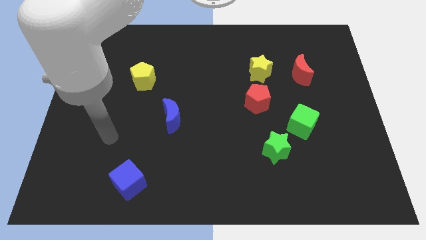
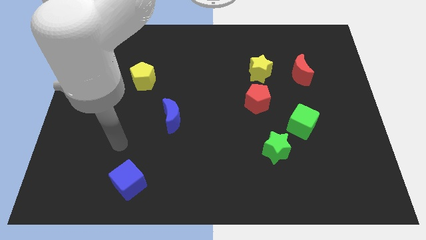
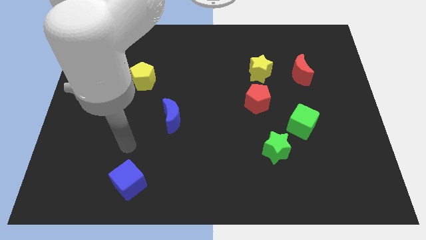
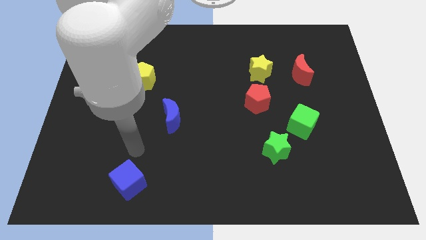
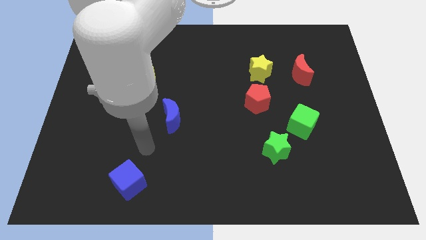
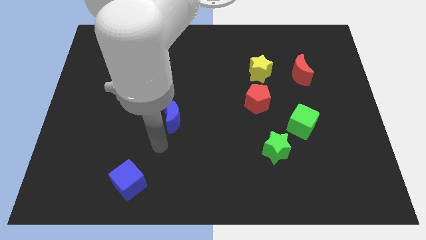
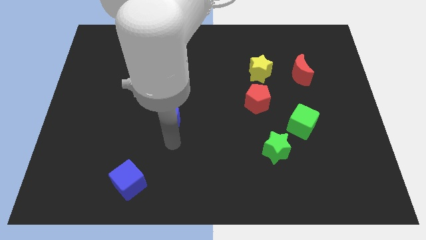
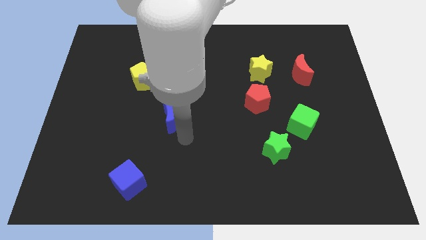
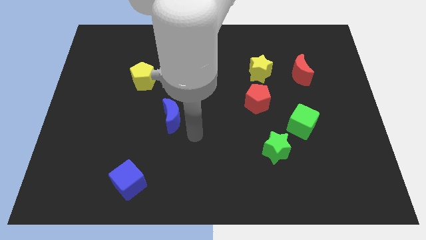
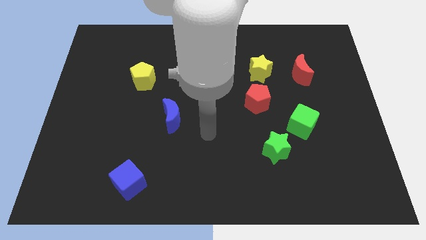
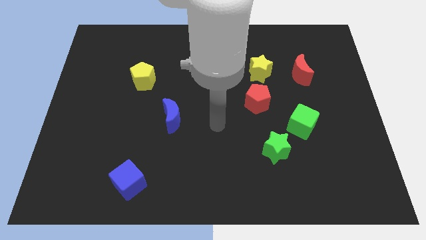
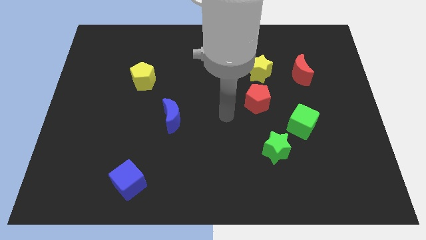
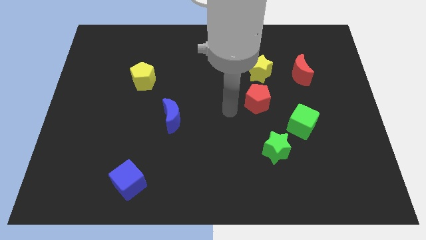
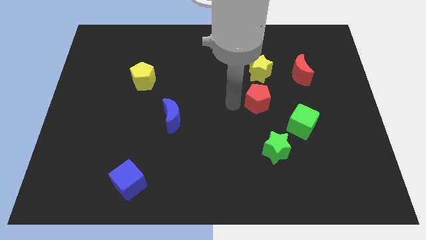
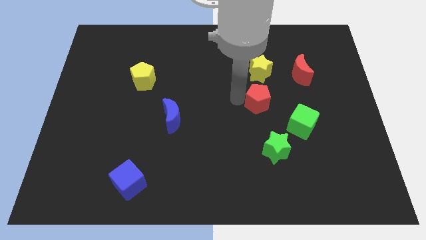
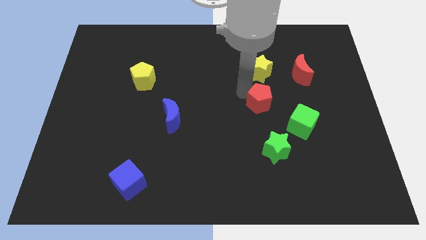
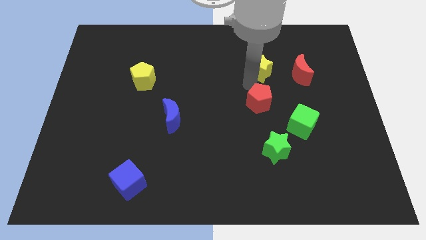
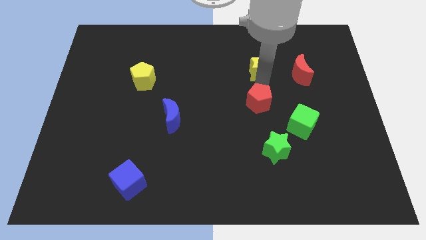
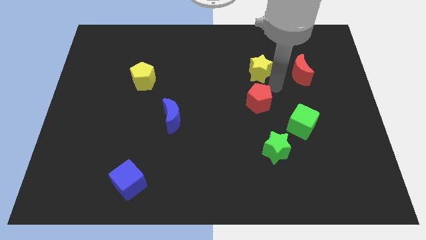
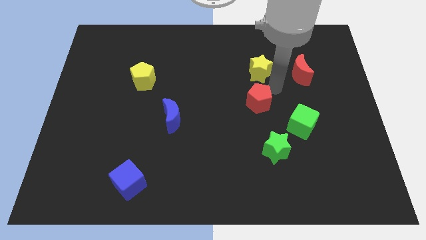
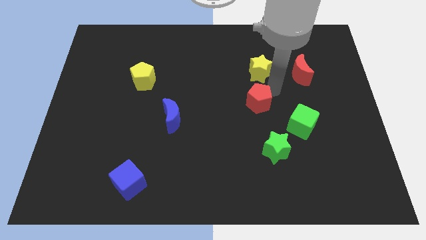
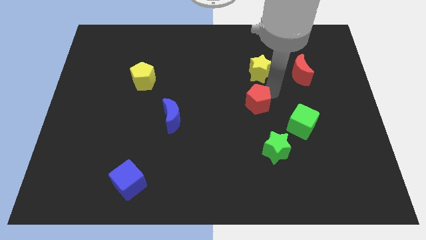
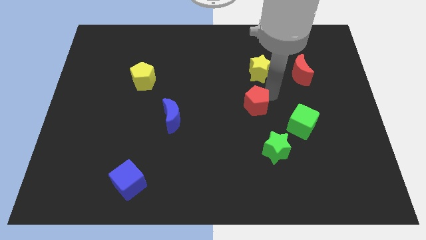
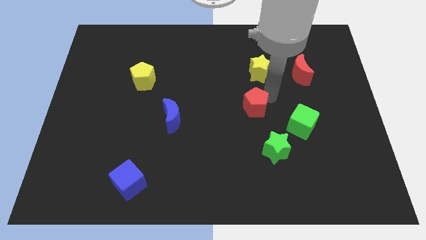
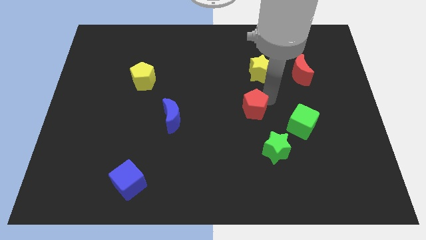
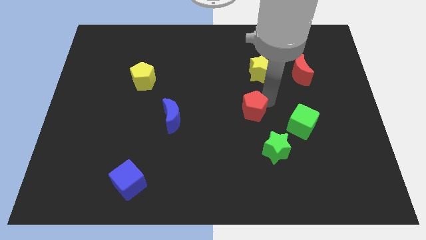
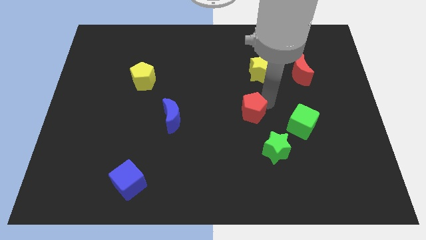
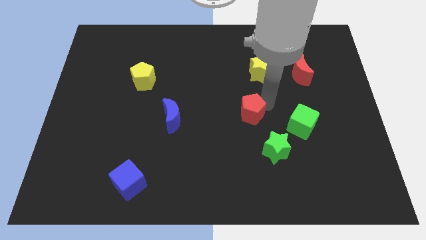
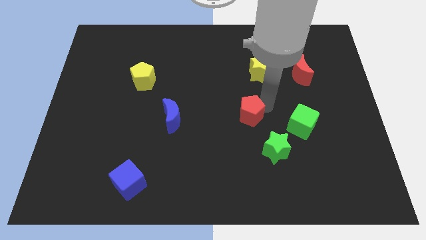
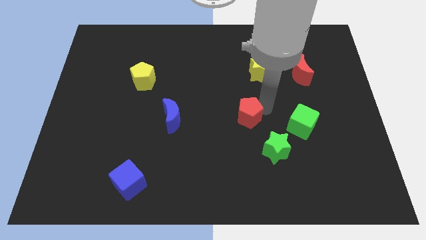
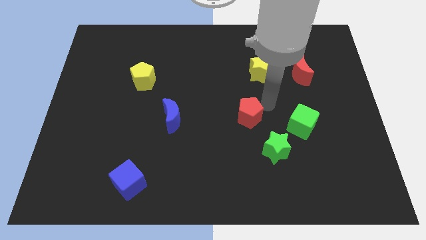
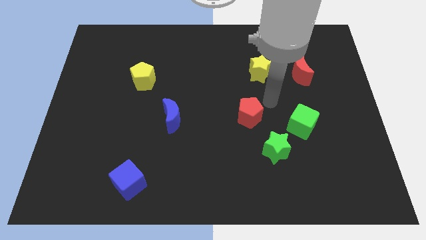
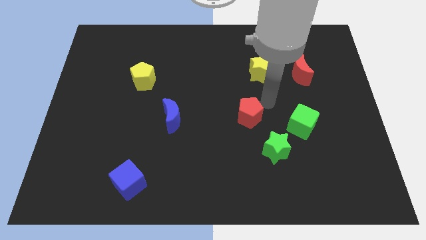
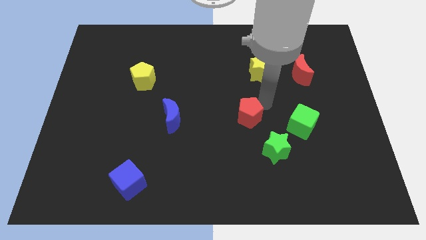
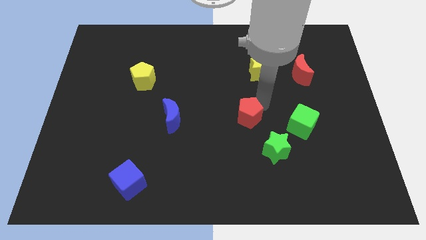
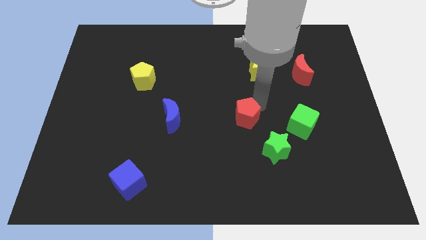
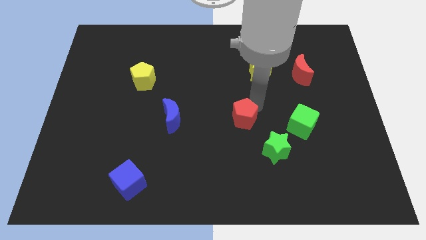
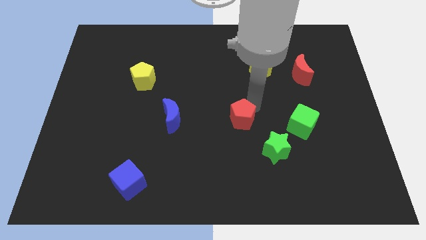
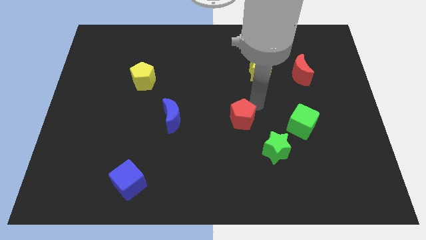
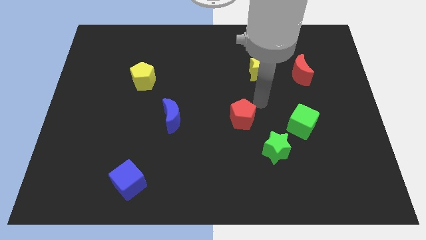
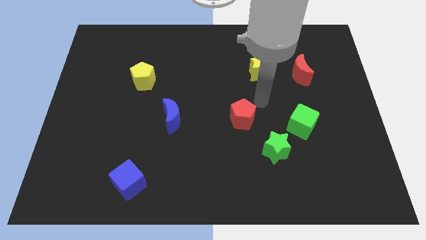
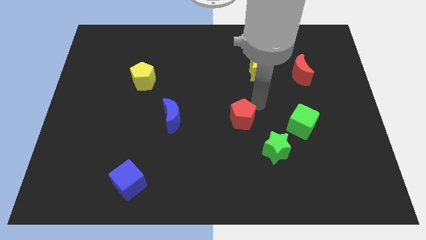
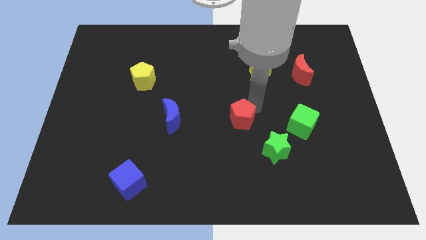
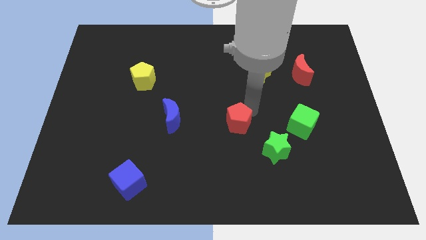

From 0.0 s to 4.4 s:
slightly push the red pentagon downwards and then to the left

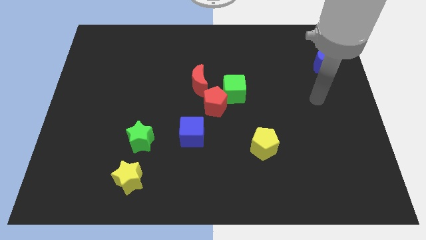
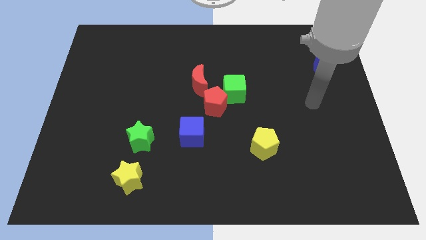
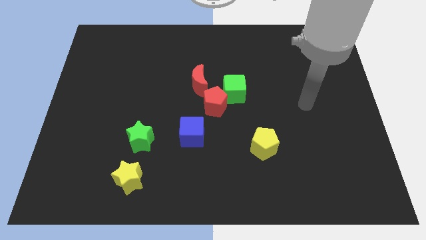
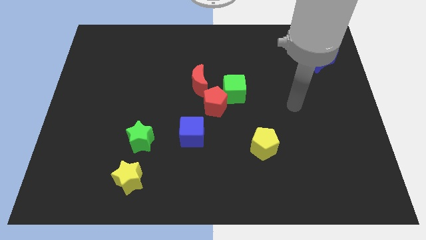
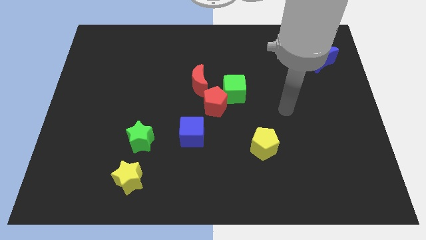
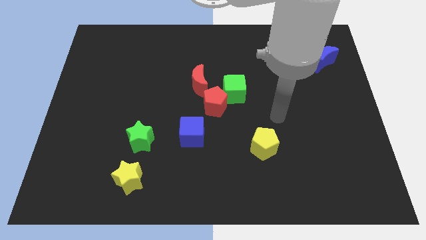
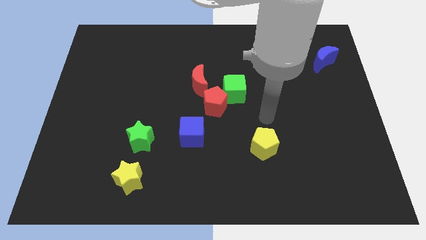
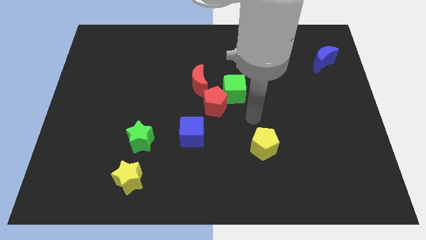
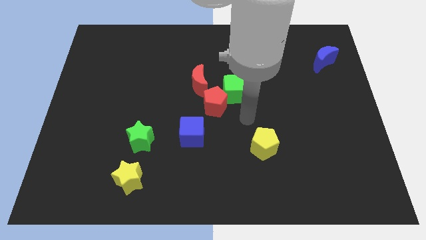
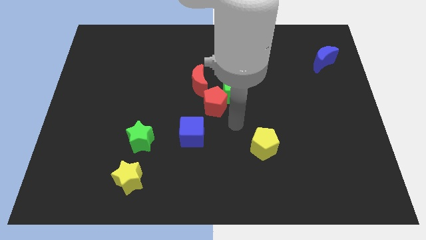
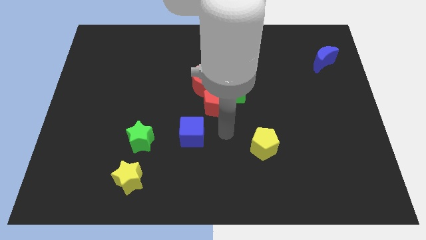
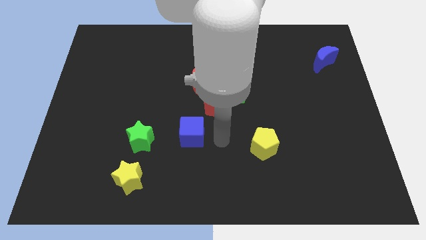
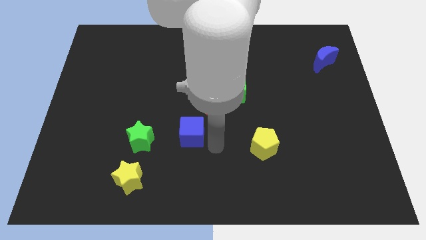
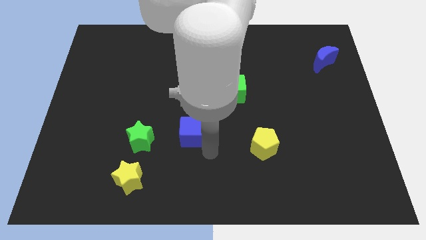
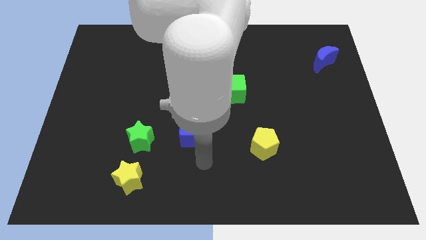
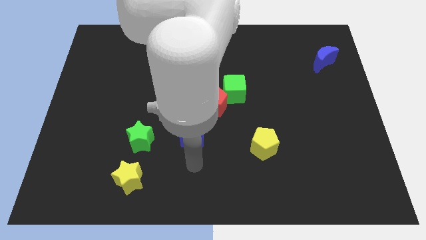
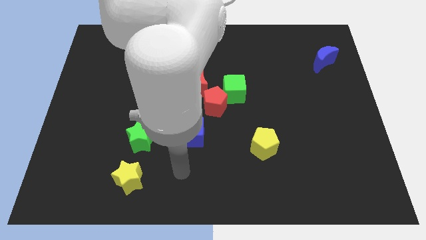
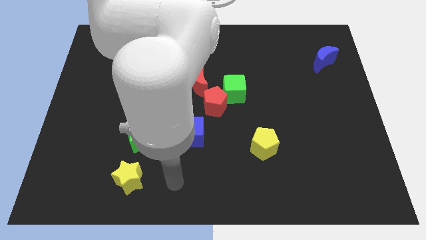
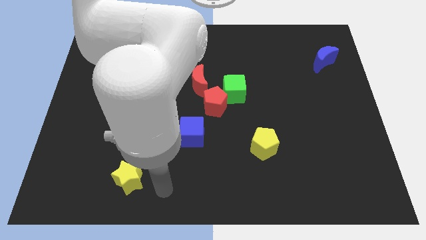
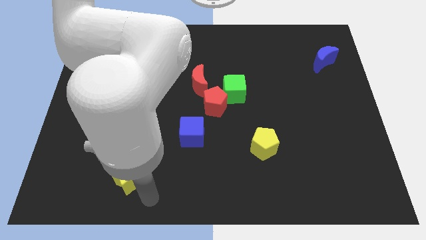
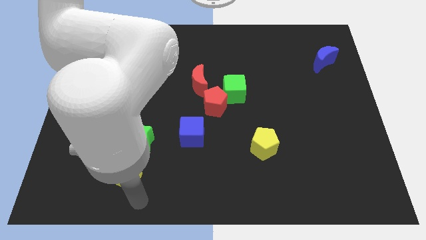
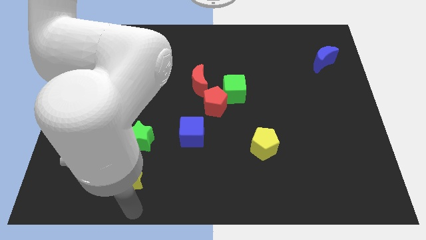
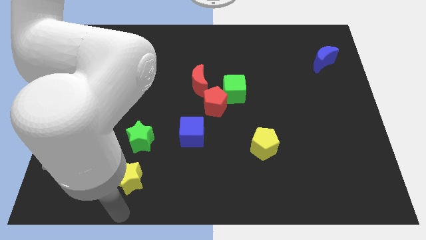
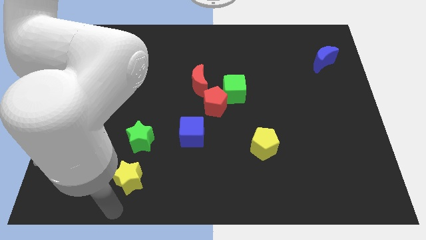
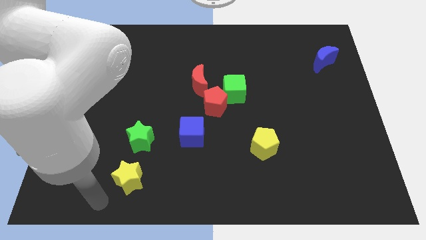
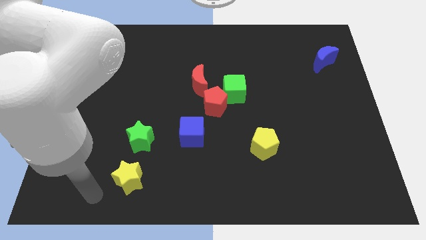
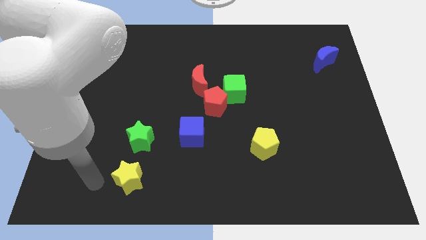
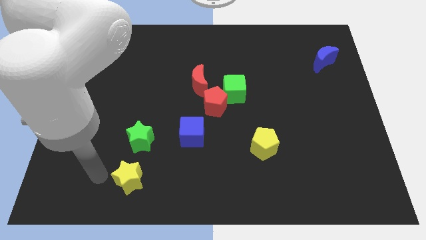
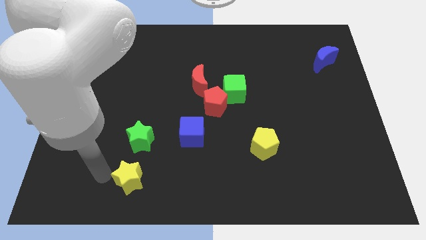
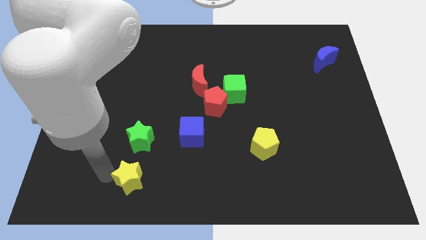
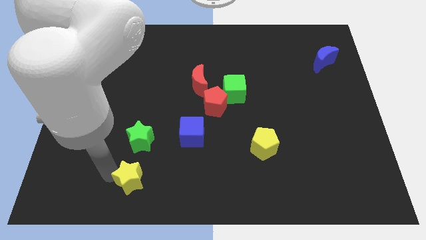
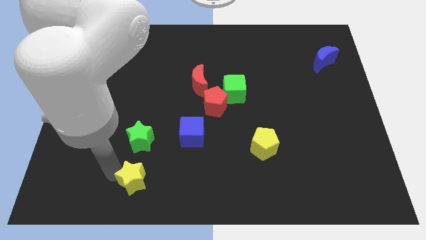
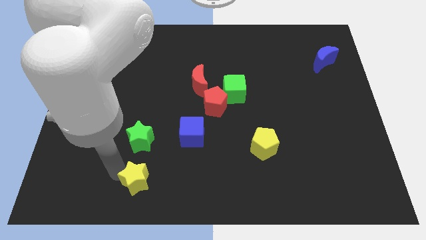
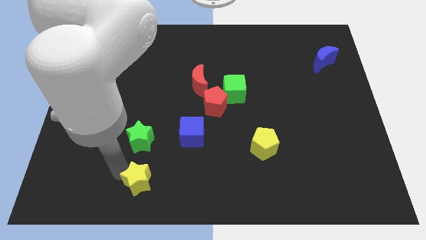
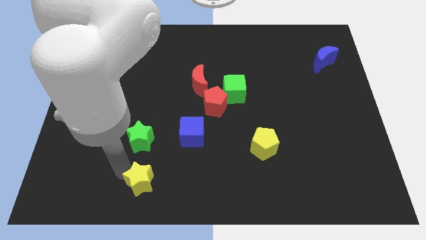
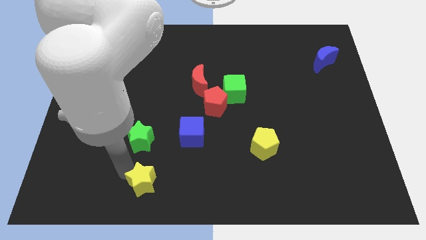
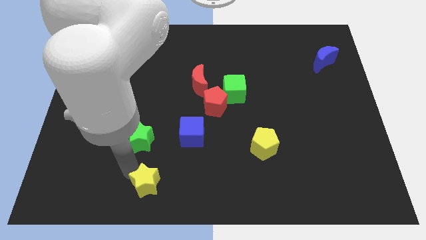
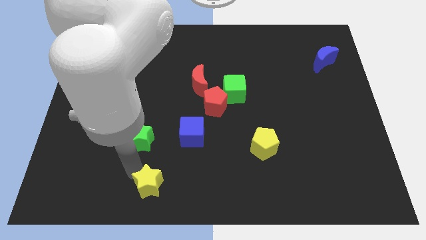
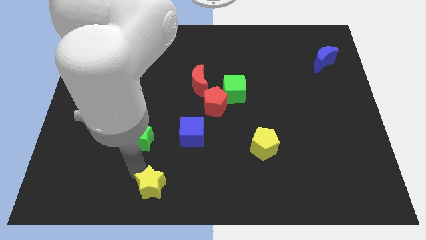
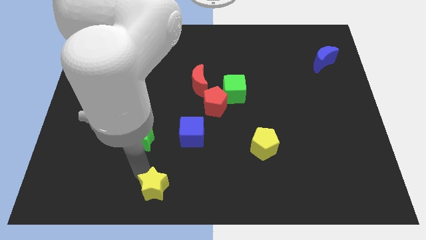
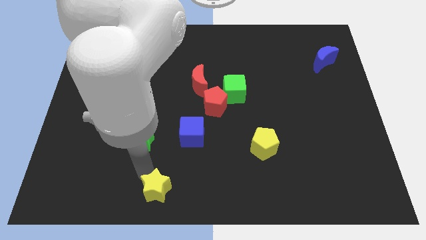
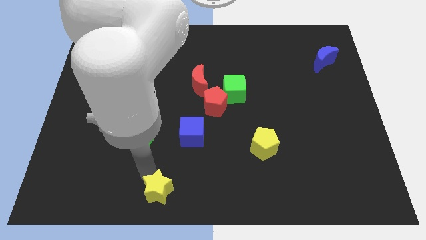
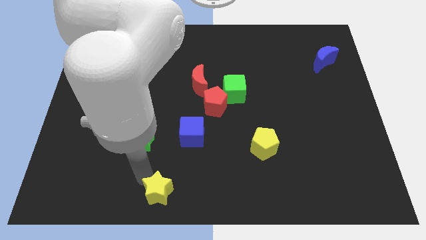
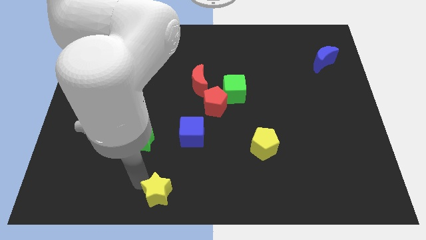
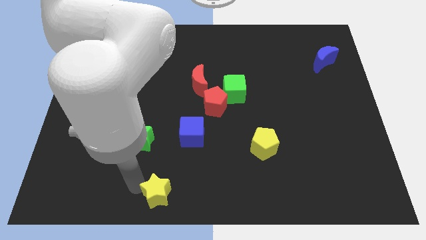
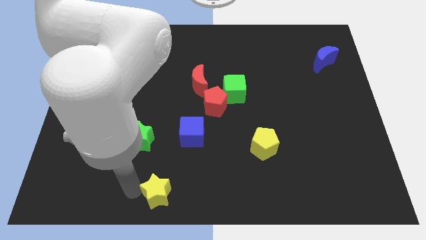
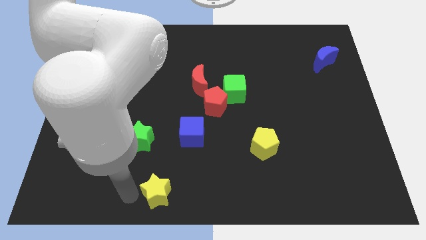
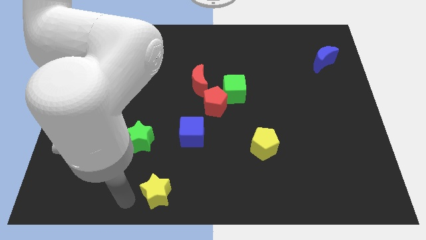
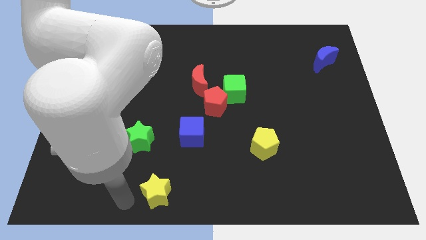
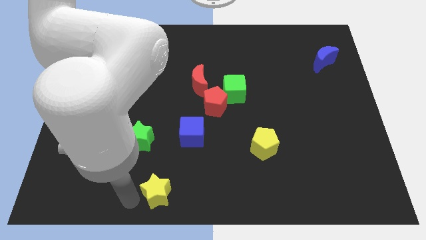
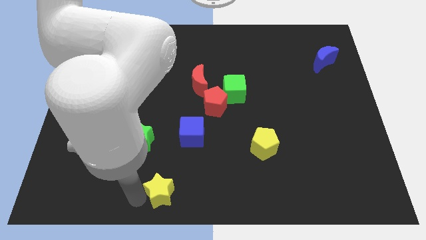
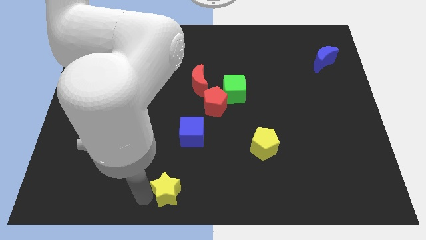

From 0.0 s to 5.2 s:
push the yellow star right somewhat
